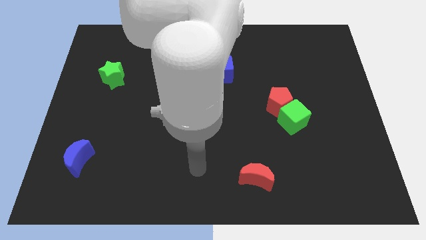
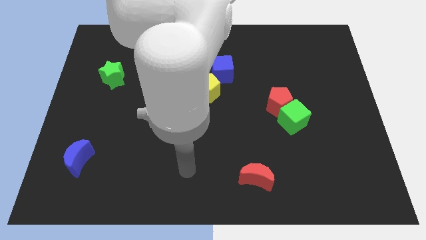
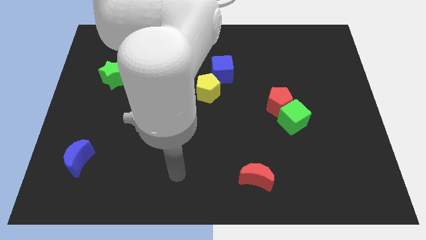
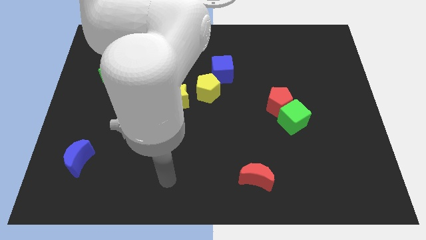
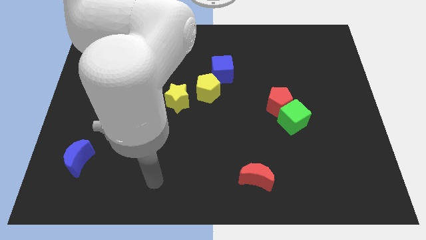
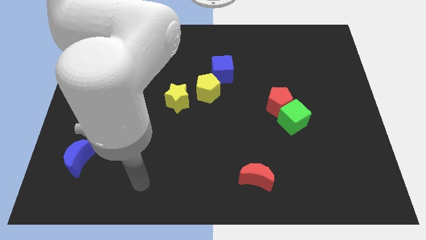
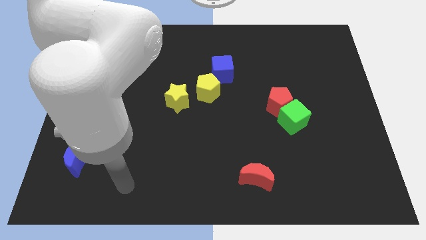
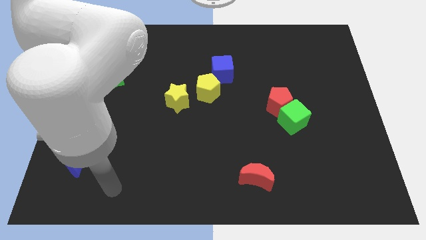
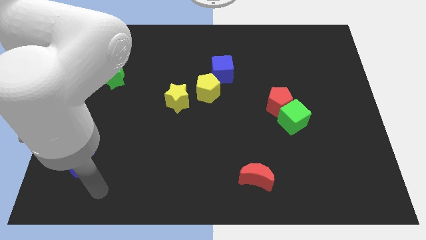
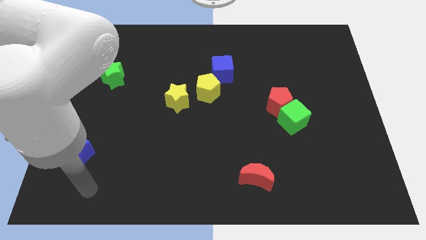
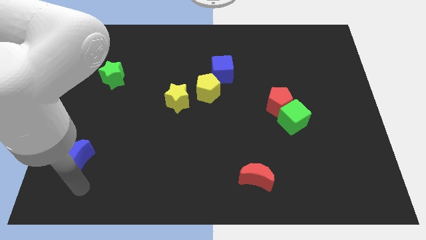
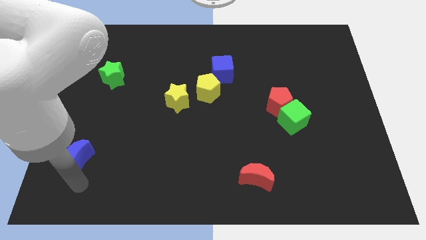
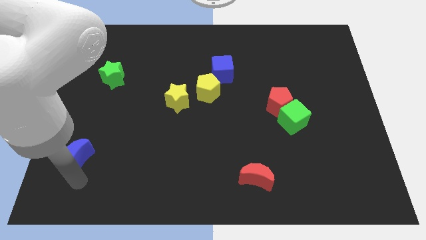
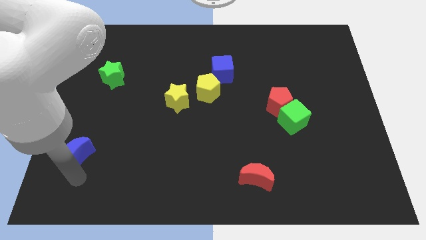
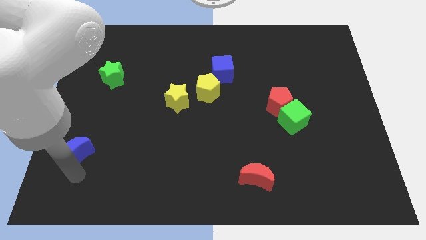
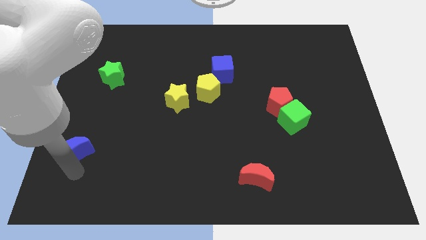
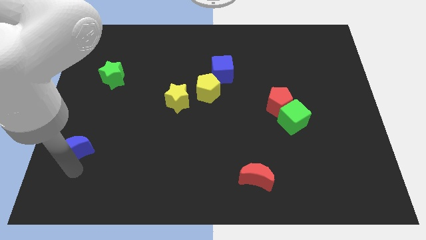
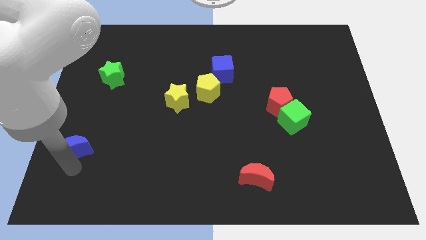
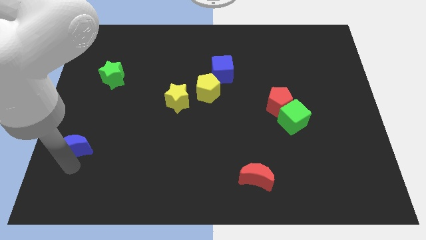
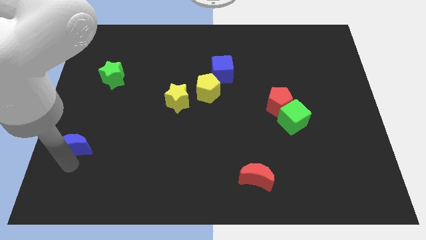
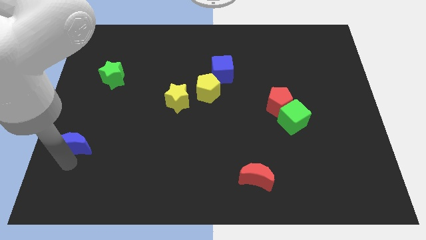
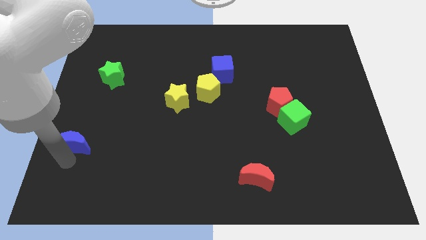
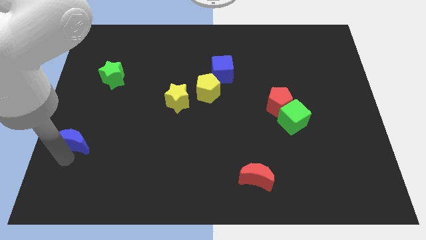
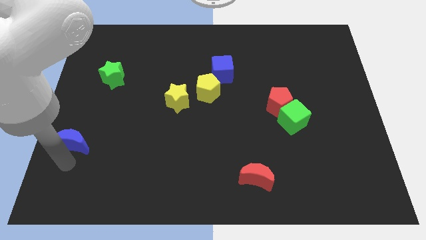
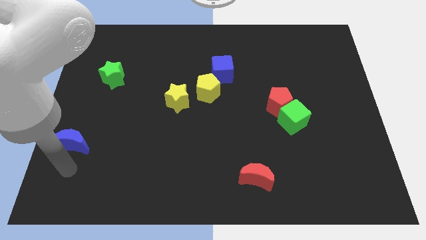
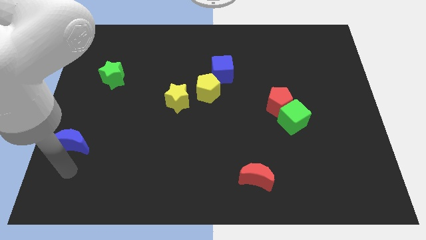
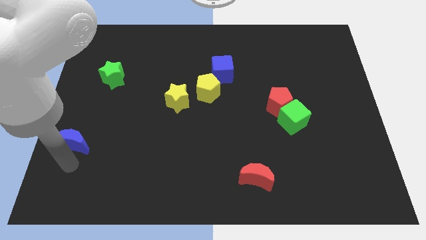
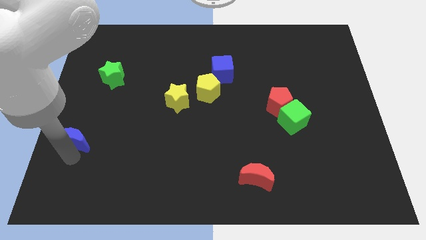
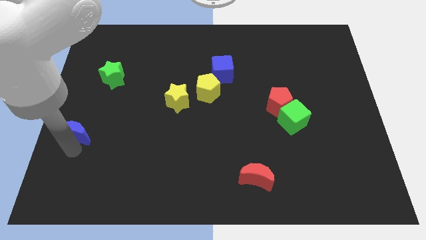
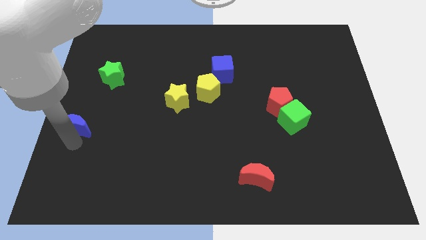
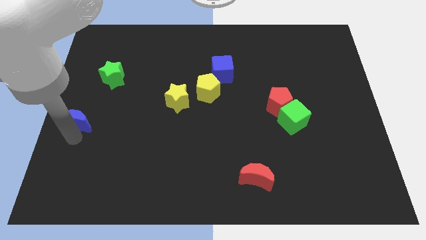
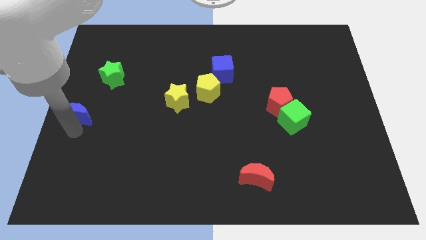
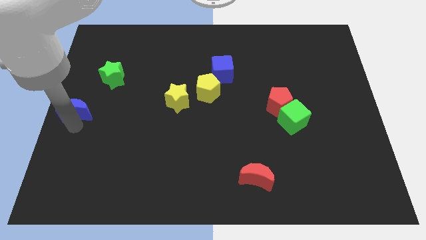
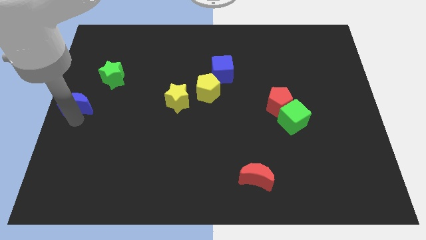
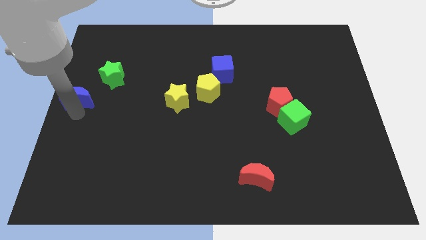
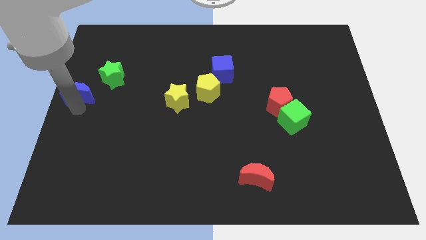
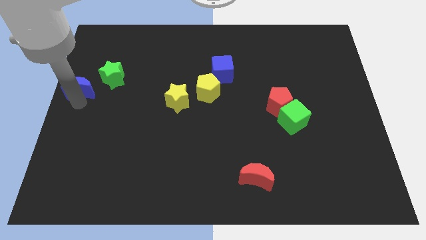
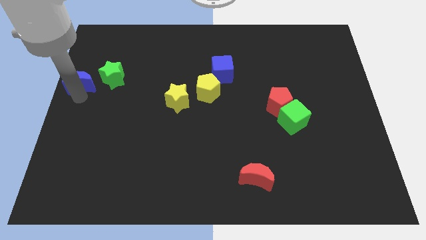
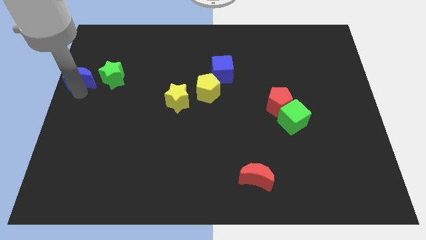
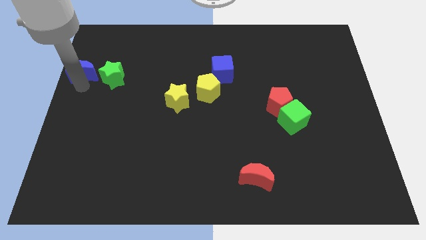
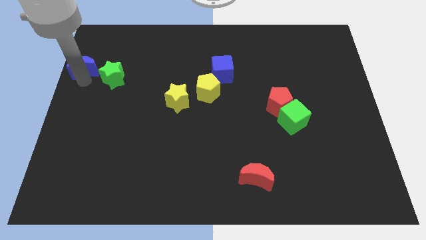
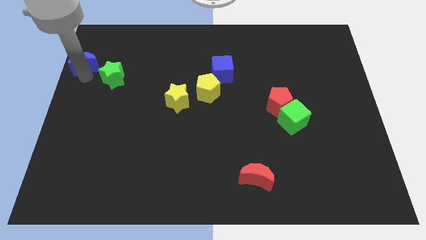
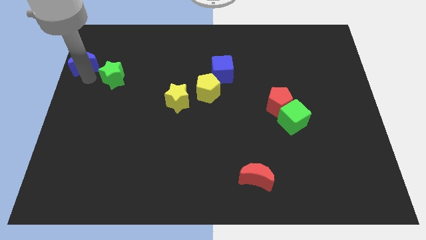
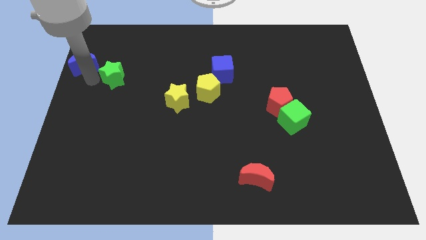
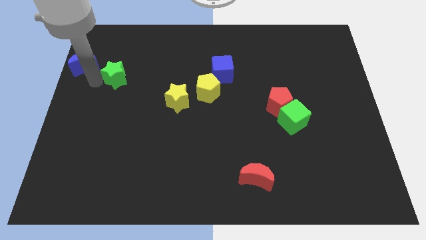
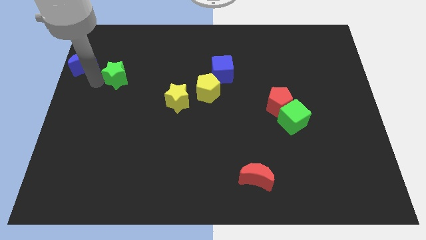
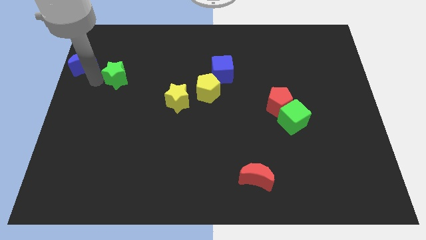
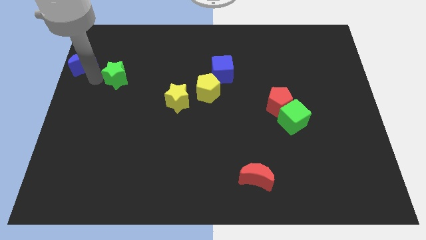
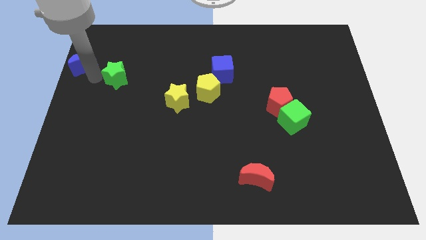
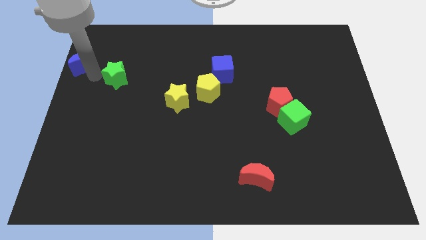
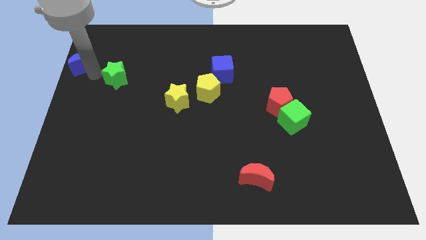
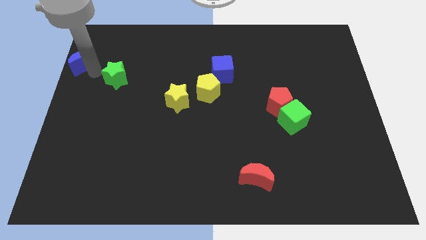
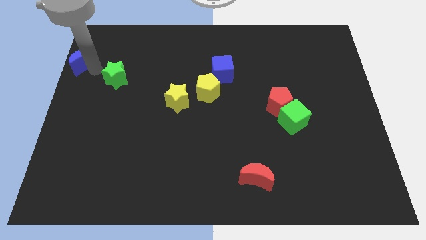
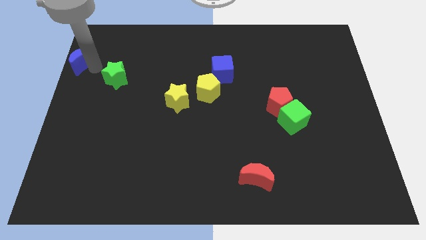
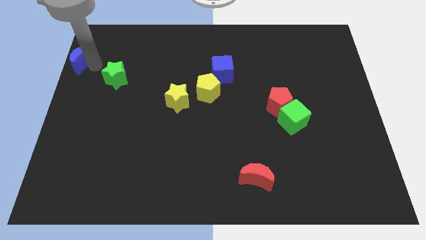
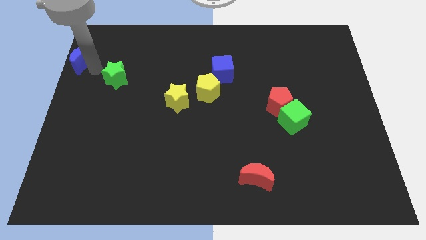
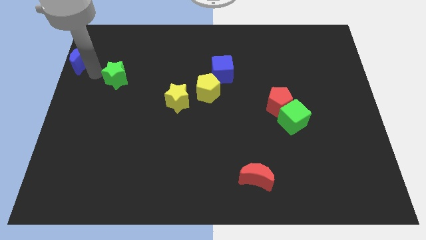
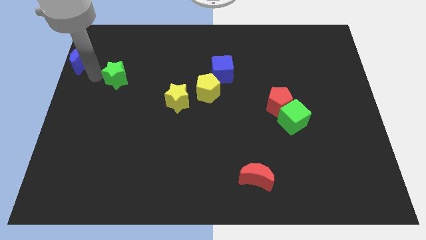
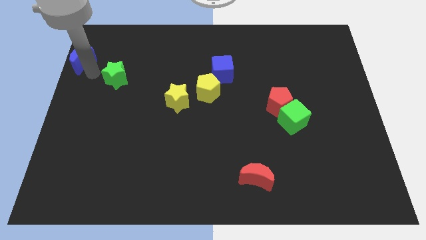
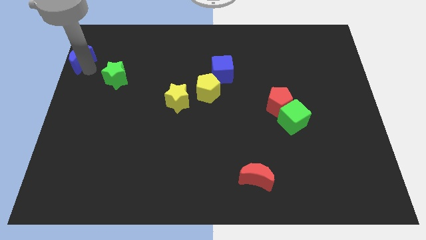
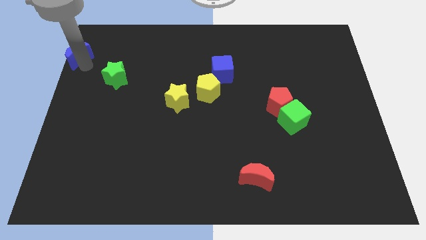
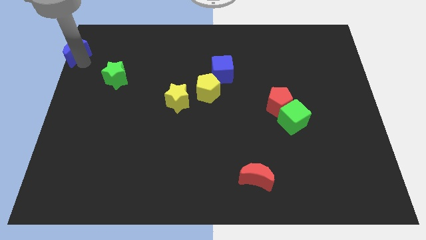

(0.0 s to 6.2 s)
slide the blue moon to the top left
